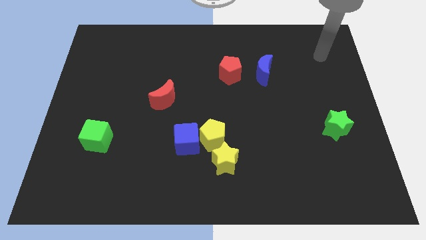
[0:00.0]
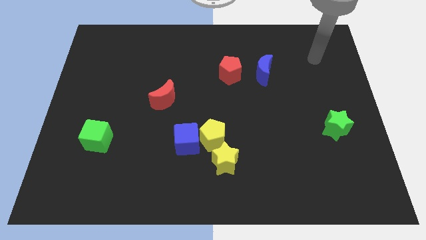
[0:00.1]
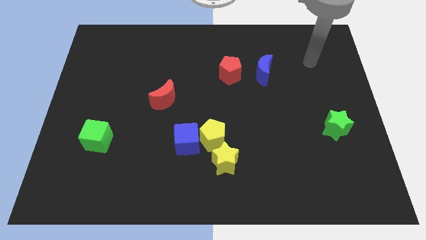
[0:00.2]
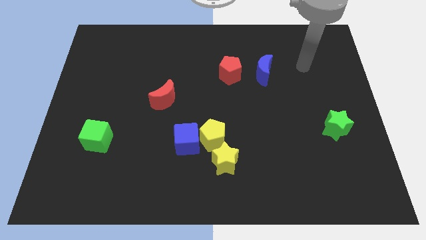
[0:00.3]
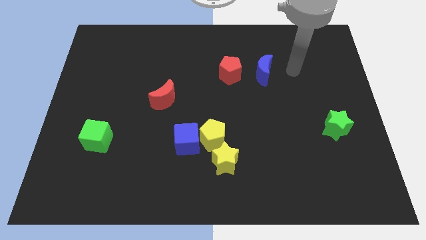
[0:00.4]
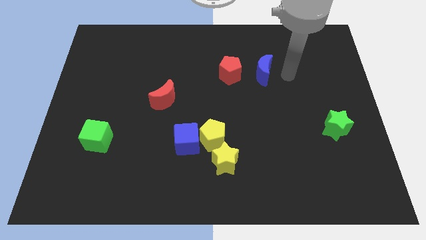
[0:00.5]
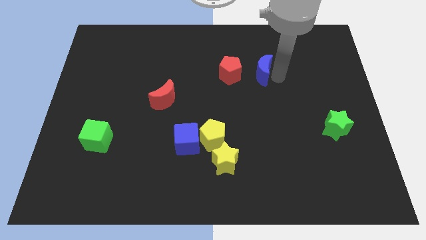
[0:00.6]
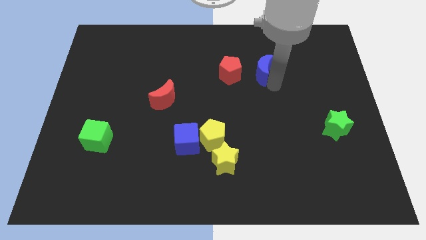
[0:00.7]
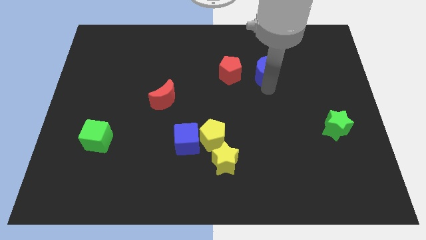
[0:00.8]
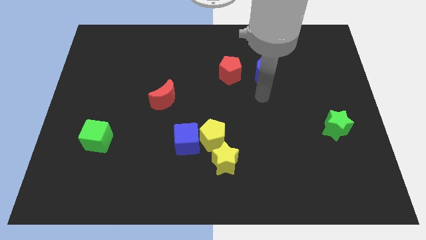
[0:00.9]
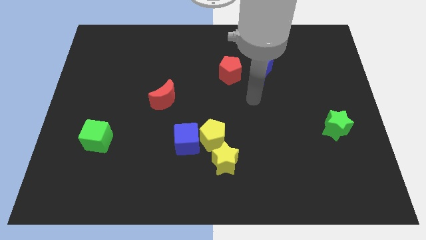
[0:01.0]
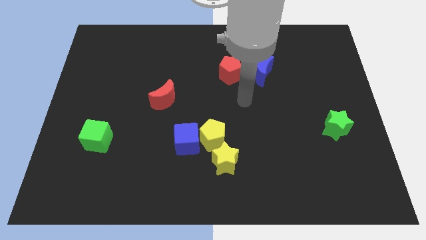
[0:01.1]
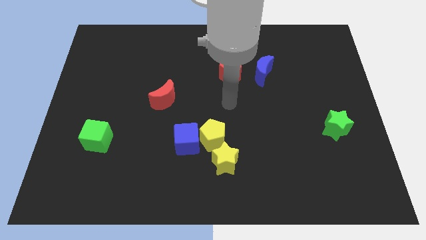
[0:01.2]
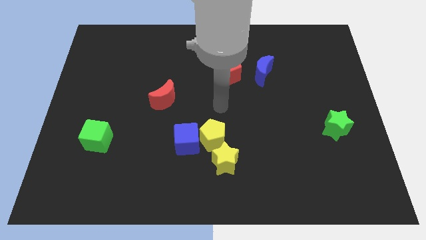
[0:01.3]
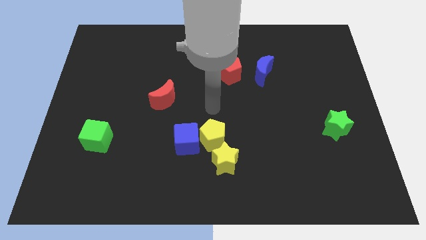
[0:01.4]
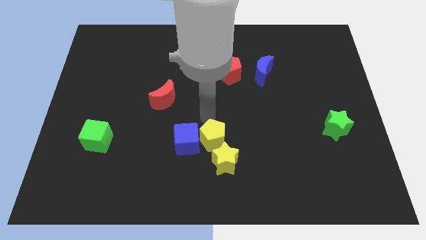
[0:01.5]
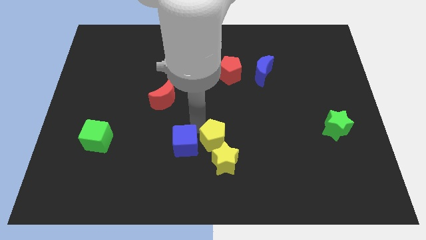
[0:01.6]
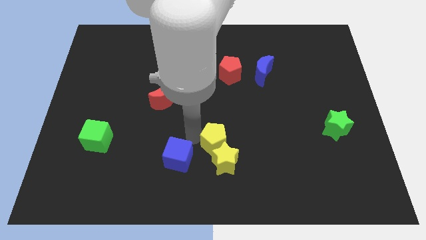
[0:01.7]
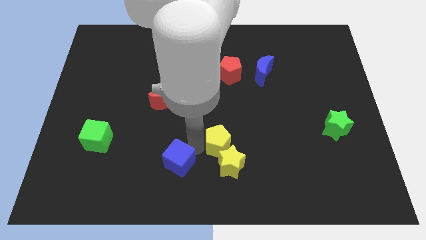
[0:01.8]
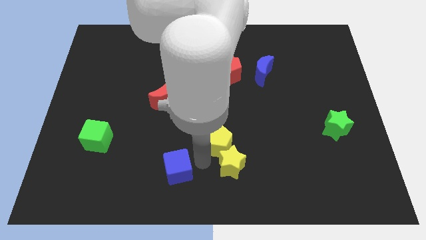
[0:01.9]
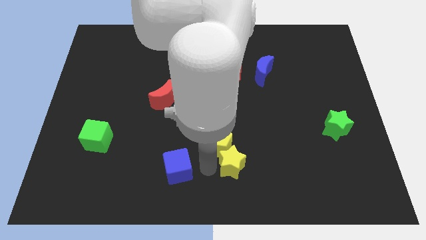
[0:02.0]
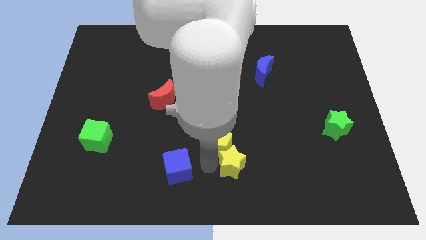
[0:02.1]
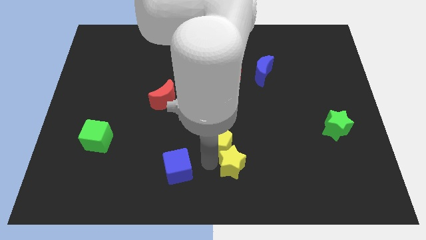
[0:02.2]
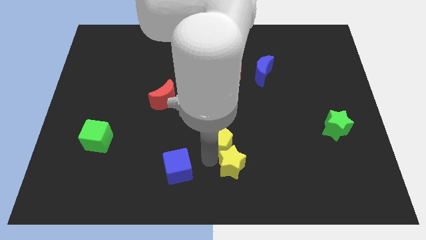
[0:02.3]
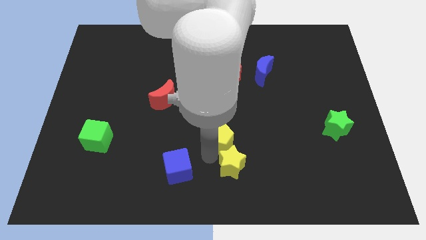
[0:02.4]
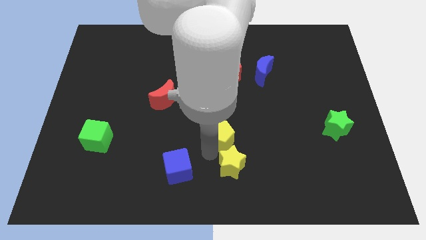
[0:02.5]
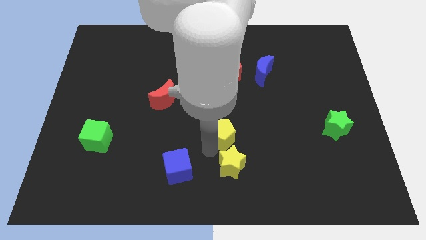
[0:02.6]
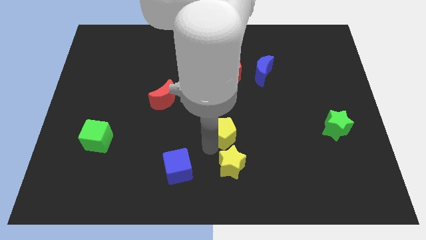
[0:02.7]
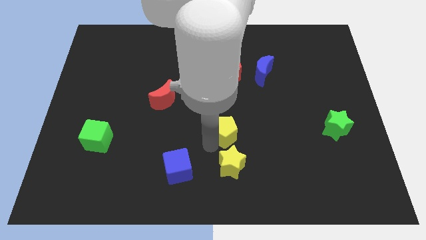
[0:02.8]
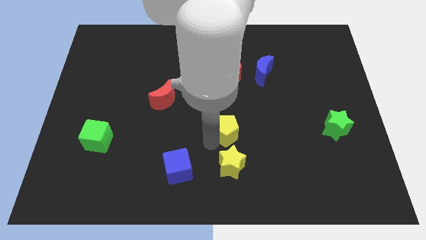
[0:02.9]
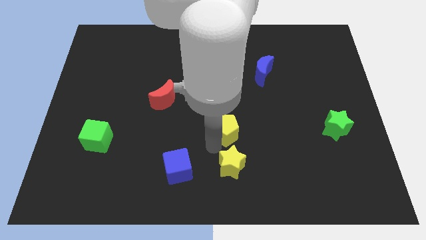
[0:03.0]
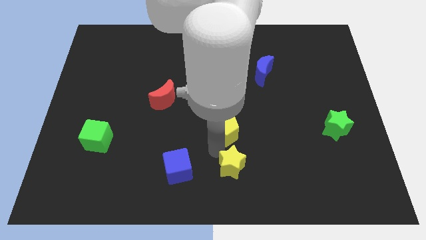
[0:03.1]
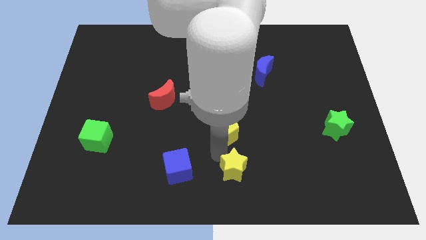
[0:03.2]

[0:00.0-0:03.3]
separate the yellow pentagon from the blue cube and yellow star

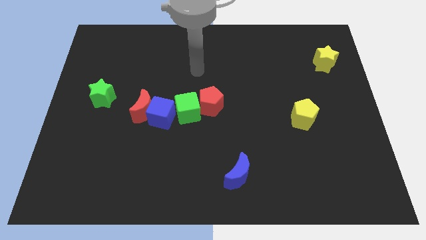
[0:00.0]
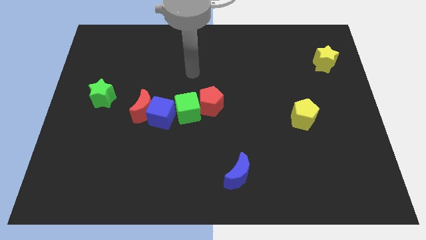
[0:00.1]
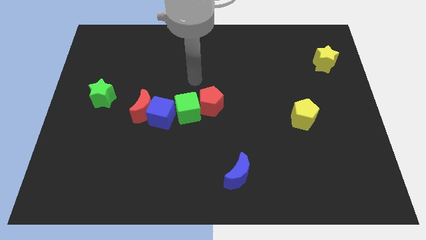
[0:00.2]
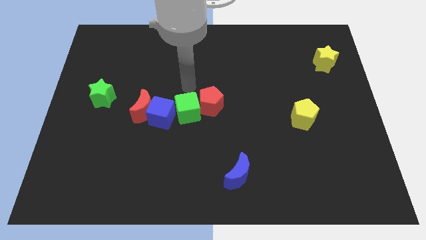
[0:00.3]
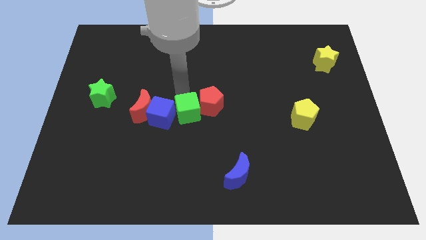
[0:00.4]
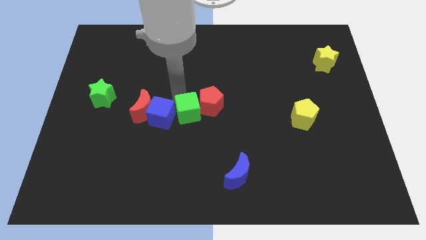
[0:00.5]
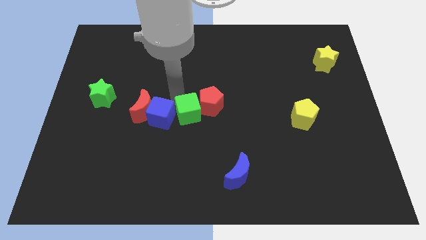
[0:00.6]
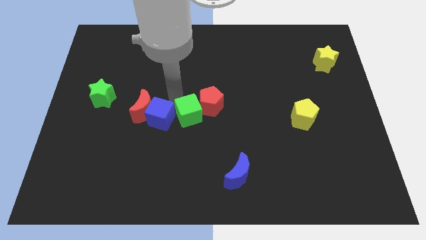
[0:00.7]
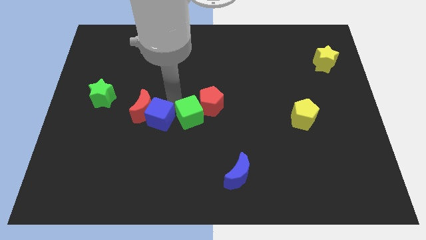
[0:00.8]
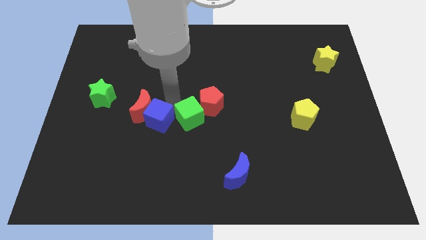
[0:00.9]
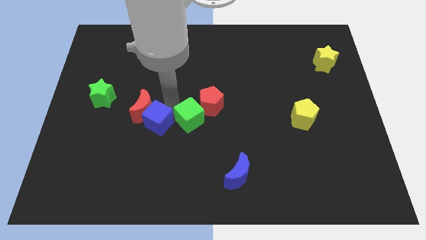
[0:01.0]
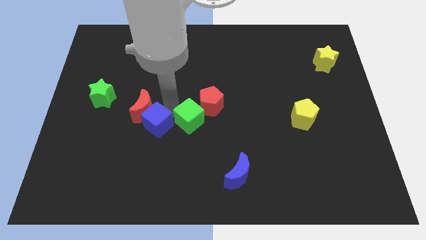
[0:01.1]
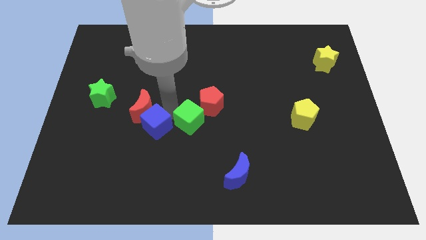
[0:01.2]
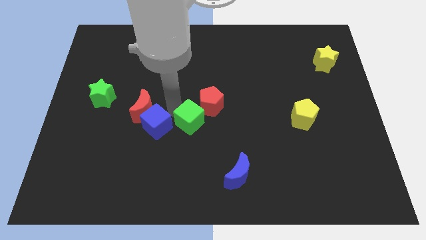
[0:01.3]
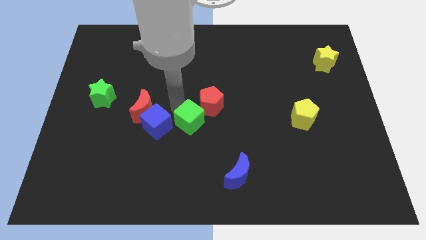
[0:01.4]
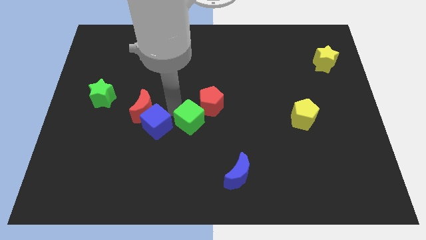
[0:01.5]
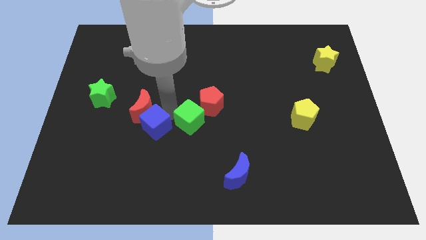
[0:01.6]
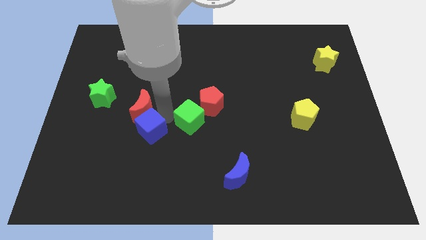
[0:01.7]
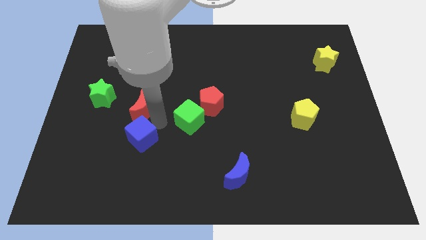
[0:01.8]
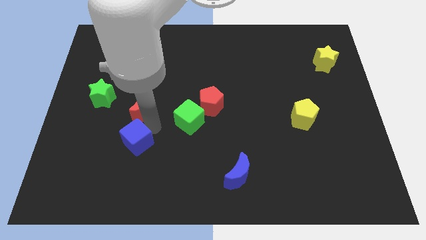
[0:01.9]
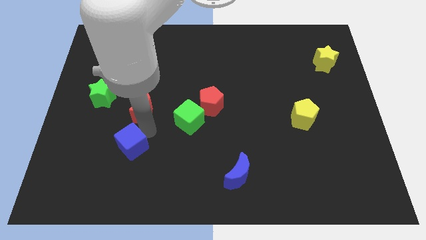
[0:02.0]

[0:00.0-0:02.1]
pull the blue cube apart from the red moon and green cube

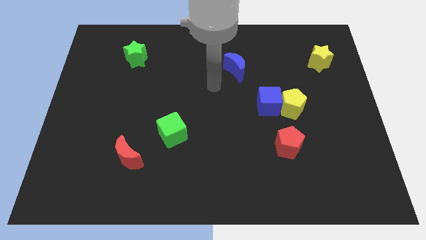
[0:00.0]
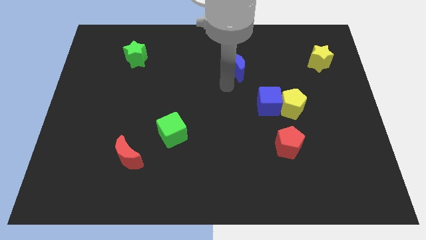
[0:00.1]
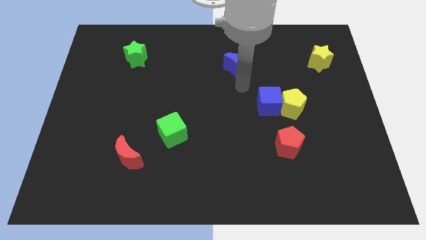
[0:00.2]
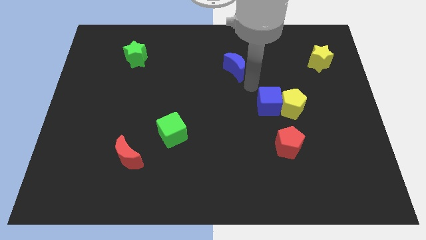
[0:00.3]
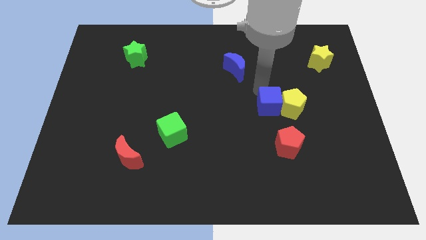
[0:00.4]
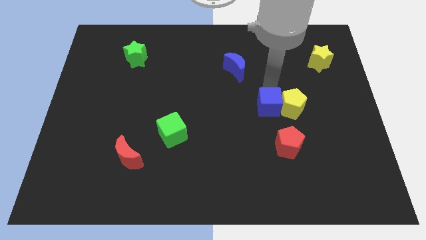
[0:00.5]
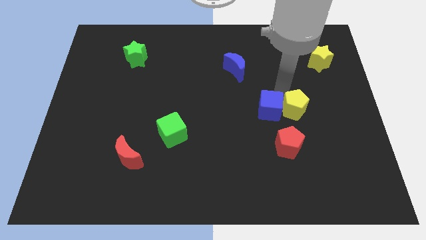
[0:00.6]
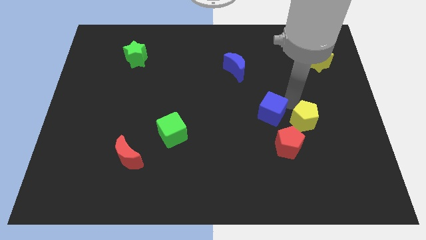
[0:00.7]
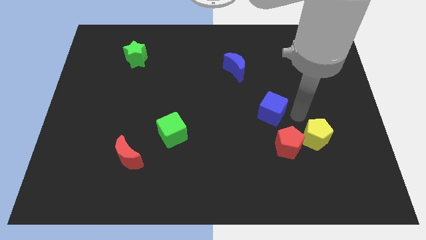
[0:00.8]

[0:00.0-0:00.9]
pull the blue cube apart from the yellow pentagon

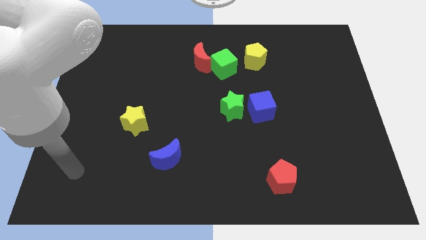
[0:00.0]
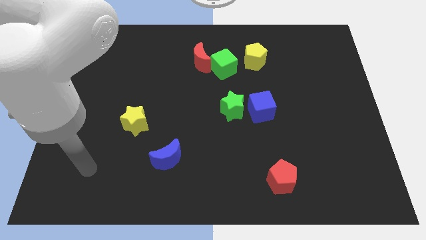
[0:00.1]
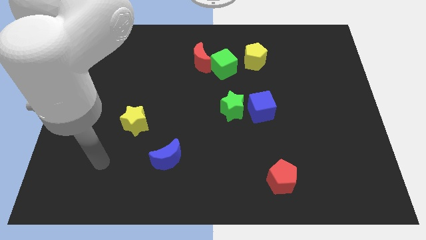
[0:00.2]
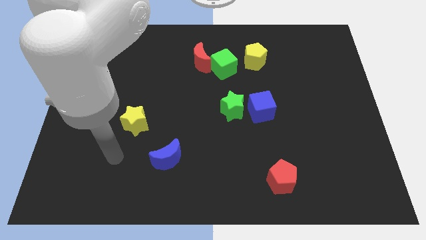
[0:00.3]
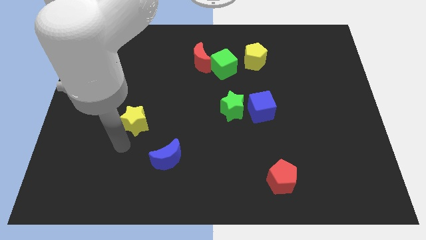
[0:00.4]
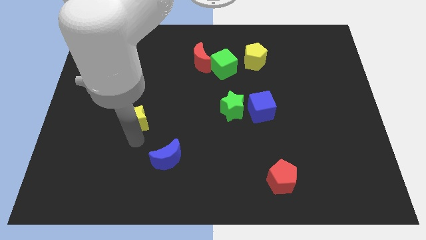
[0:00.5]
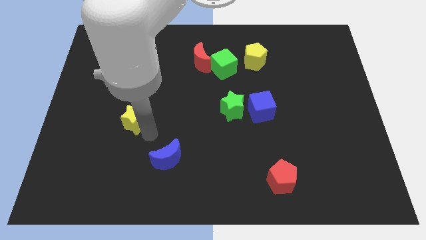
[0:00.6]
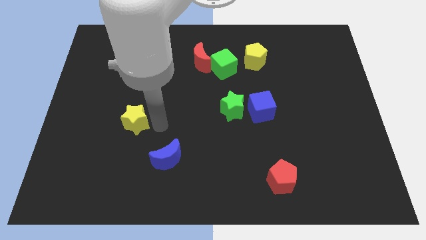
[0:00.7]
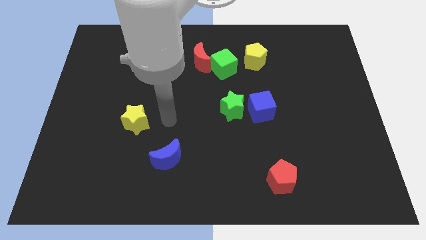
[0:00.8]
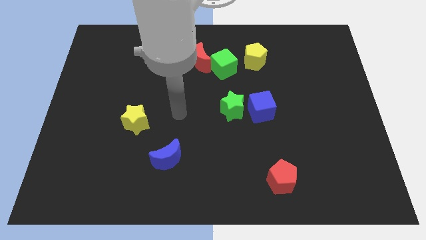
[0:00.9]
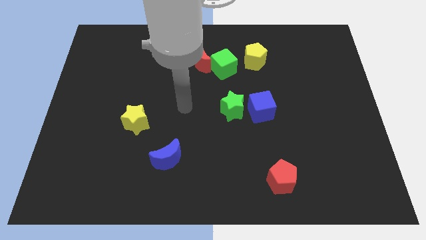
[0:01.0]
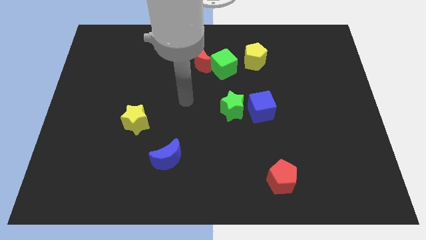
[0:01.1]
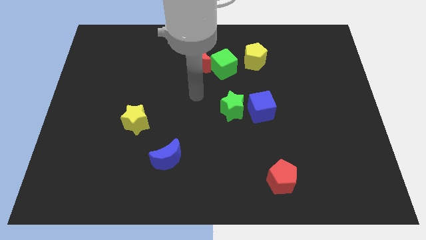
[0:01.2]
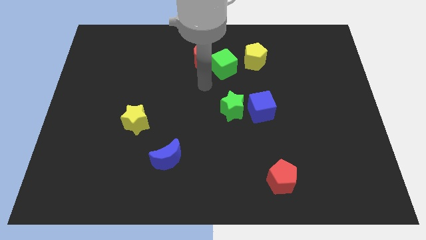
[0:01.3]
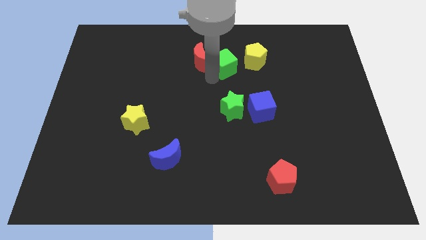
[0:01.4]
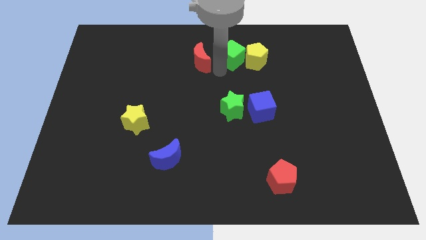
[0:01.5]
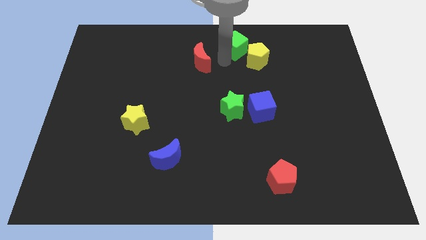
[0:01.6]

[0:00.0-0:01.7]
move the red moon away from the green cube

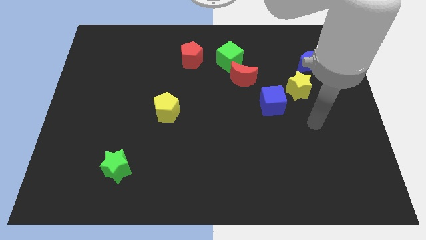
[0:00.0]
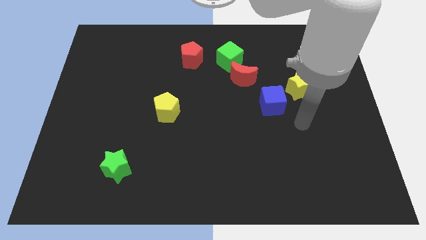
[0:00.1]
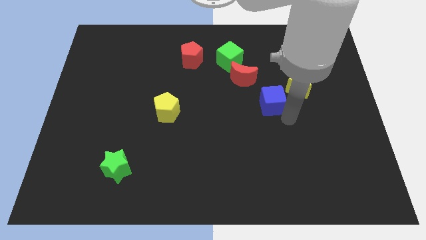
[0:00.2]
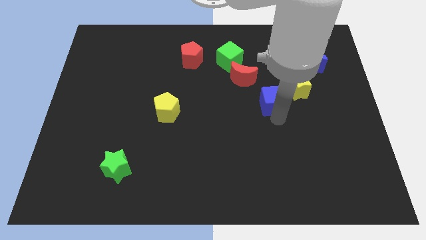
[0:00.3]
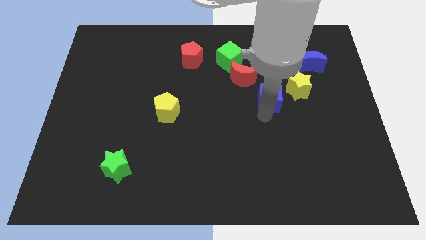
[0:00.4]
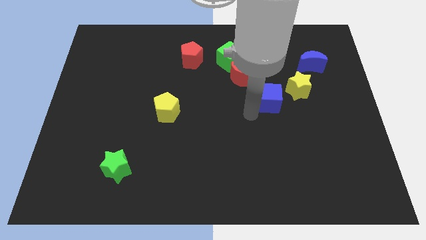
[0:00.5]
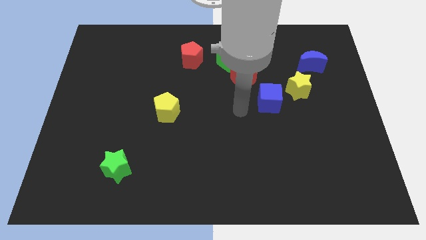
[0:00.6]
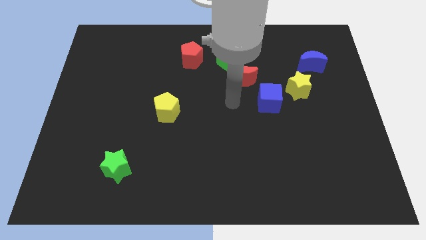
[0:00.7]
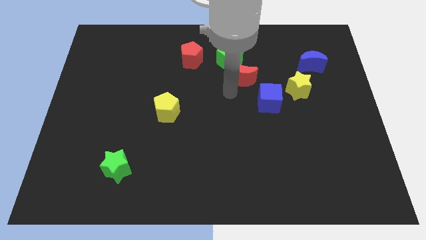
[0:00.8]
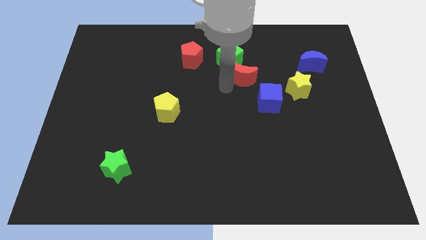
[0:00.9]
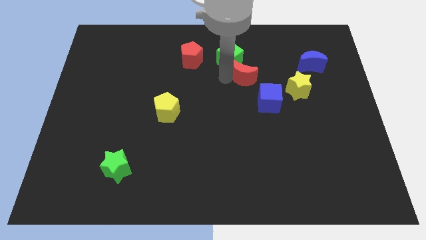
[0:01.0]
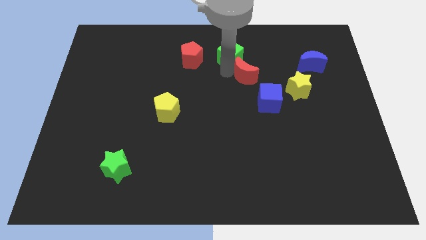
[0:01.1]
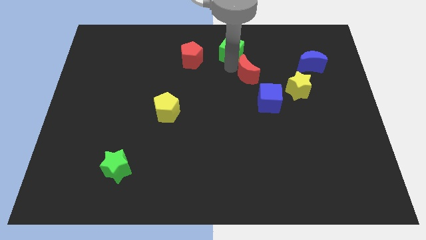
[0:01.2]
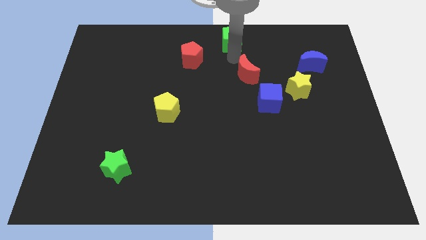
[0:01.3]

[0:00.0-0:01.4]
pull the red moon apart from the green cube
